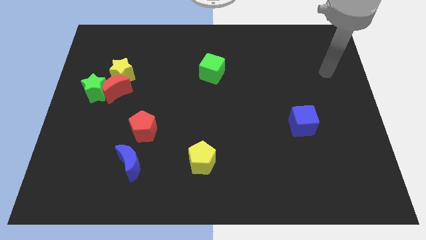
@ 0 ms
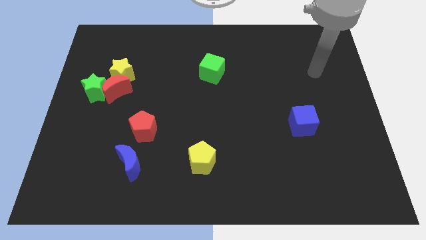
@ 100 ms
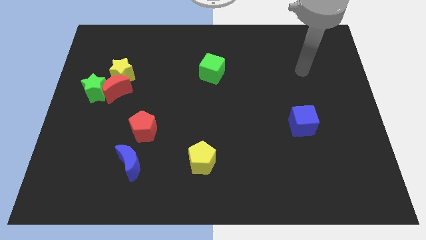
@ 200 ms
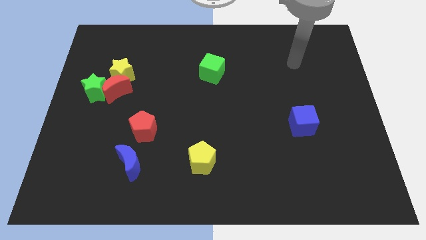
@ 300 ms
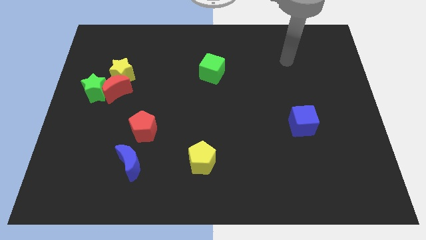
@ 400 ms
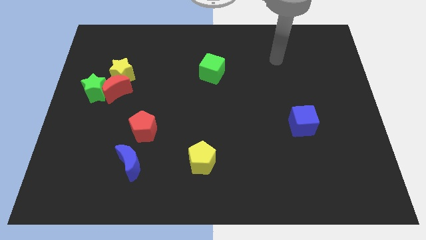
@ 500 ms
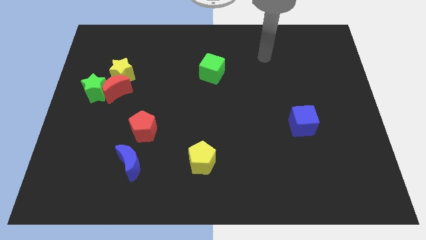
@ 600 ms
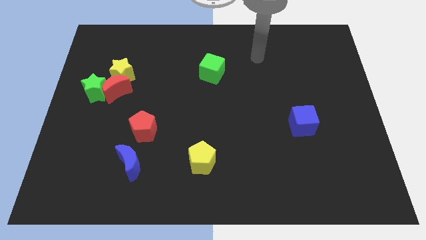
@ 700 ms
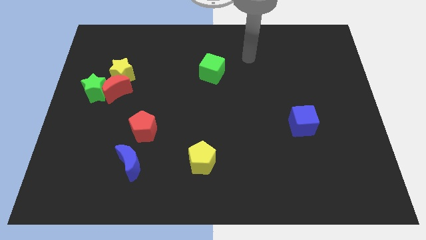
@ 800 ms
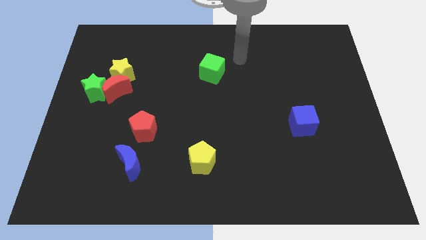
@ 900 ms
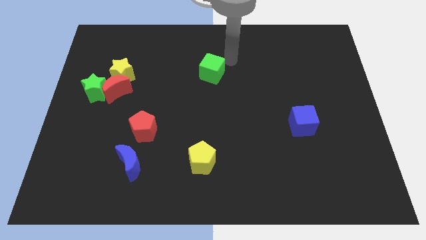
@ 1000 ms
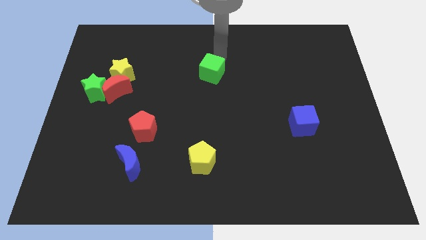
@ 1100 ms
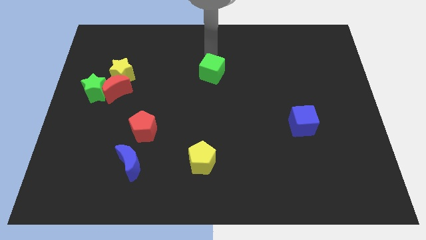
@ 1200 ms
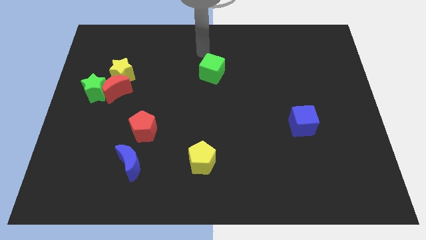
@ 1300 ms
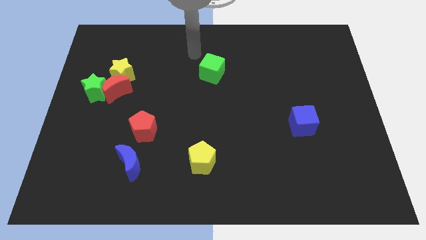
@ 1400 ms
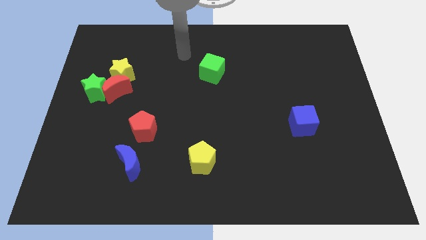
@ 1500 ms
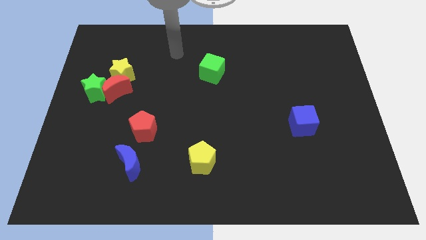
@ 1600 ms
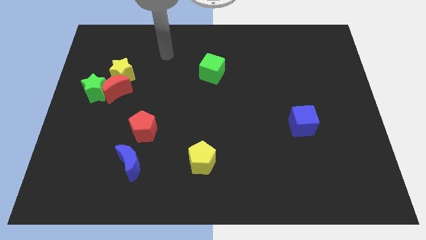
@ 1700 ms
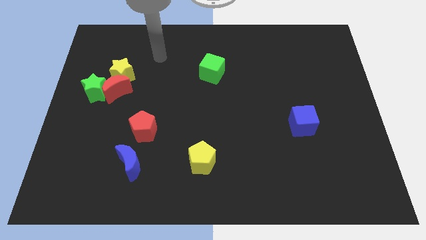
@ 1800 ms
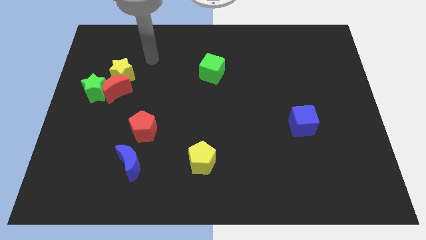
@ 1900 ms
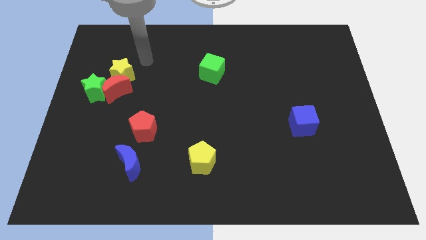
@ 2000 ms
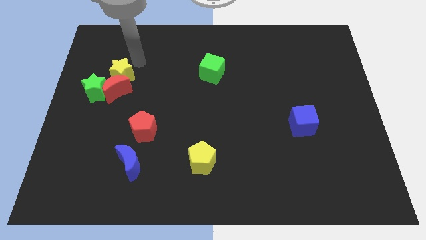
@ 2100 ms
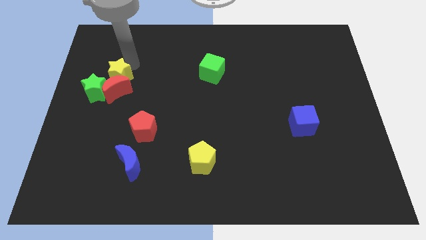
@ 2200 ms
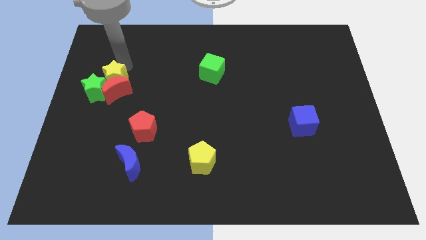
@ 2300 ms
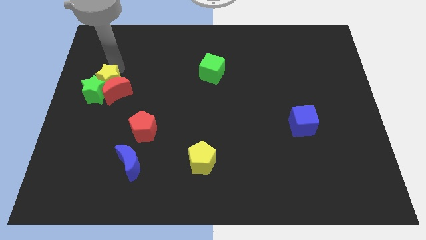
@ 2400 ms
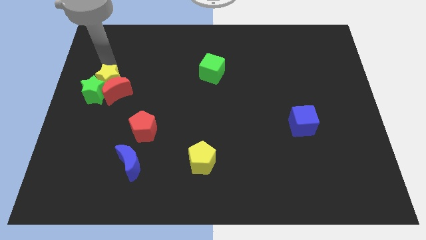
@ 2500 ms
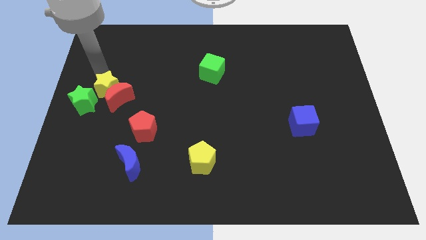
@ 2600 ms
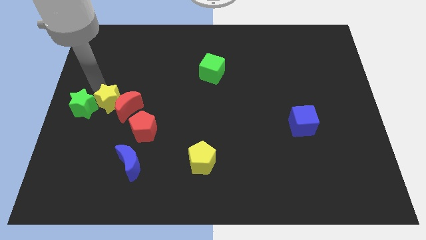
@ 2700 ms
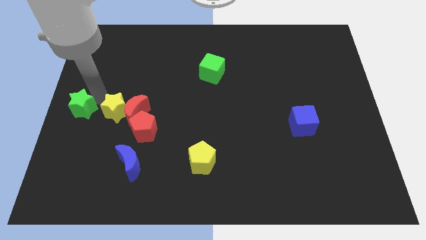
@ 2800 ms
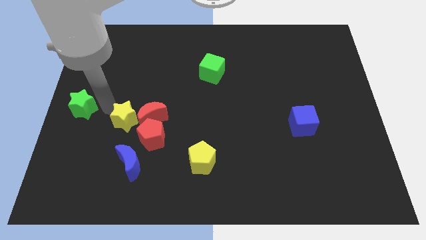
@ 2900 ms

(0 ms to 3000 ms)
separate the red moon from the green star and yellow star

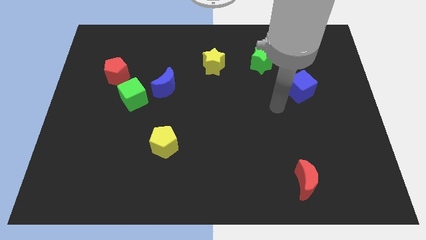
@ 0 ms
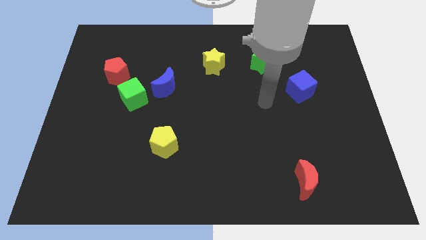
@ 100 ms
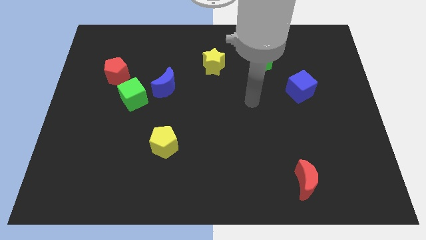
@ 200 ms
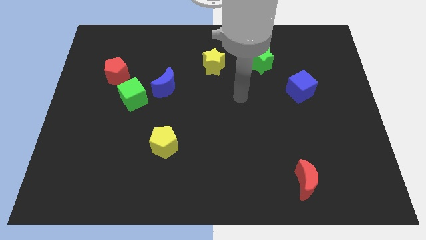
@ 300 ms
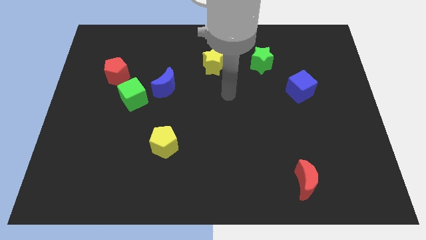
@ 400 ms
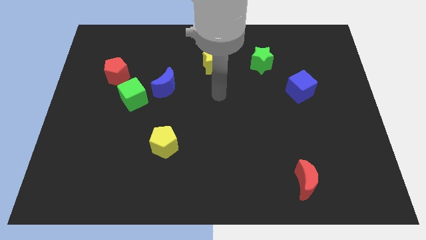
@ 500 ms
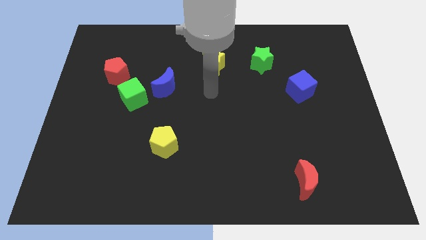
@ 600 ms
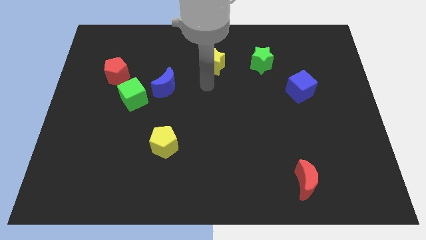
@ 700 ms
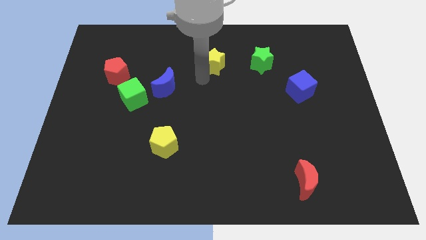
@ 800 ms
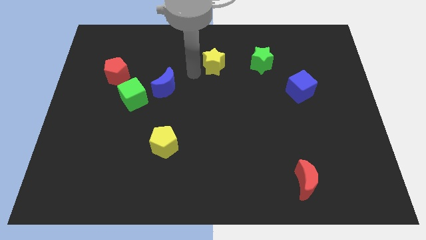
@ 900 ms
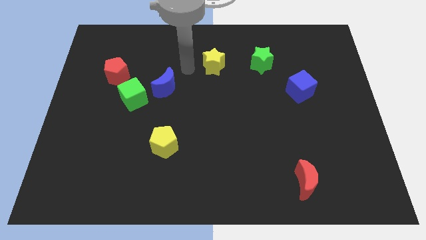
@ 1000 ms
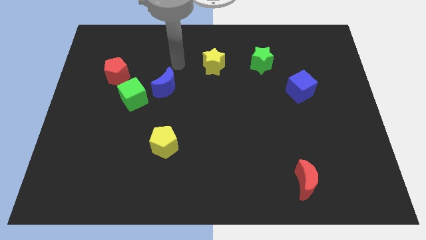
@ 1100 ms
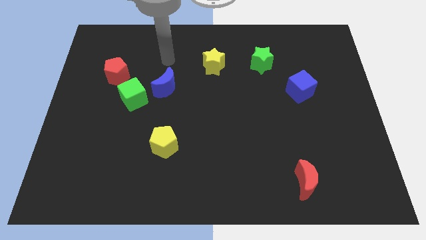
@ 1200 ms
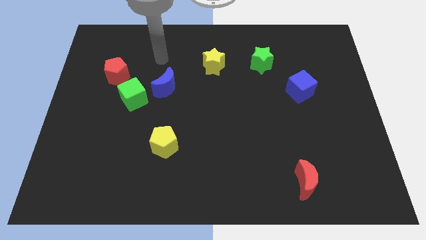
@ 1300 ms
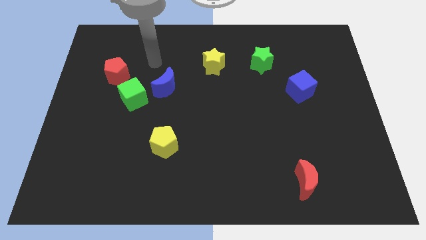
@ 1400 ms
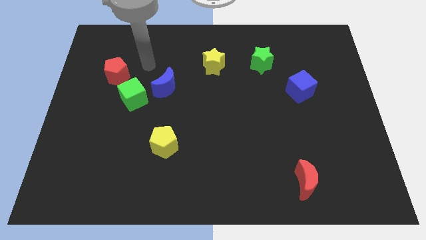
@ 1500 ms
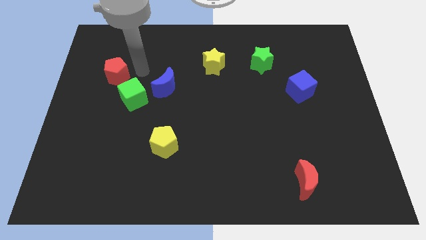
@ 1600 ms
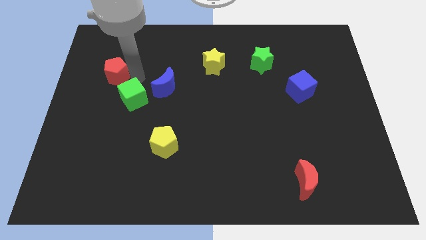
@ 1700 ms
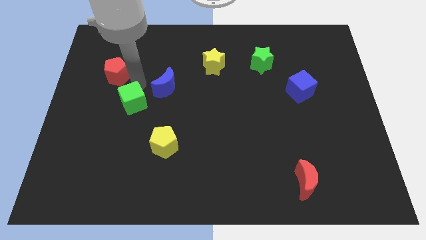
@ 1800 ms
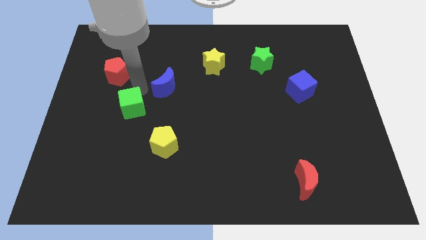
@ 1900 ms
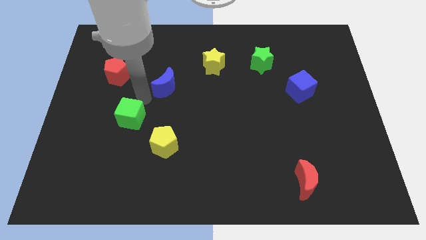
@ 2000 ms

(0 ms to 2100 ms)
pull the blue moon apart from the green cube

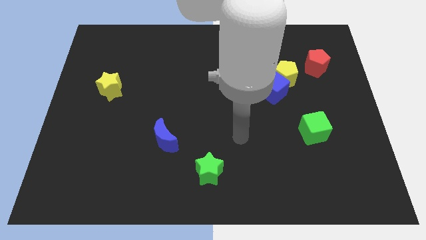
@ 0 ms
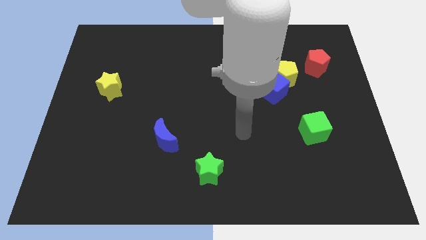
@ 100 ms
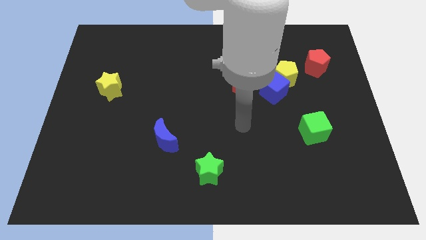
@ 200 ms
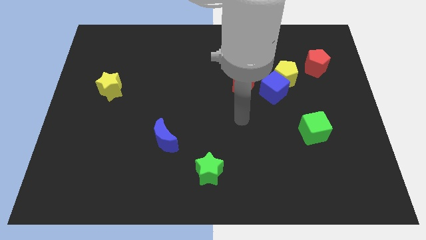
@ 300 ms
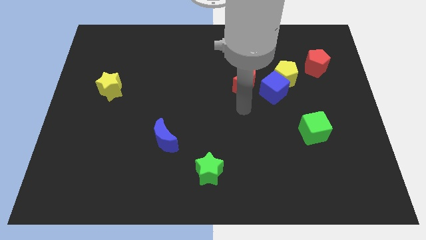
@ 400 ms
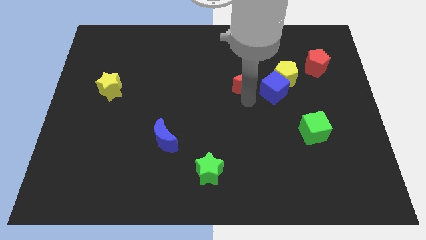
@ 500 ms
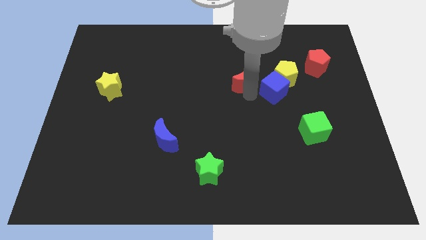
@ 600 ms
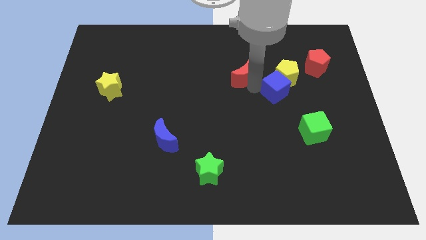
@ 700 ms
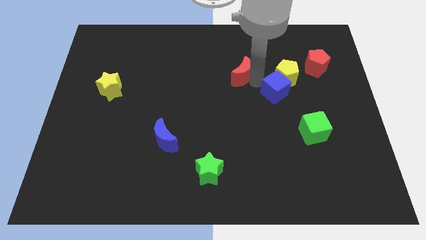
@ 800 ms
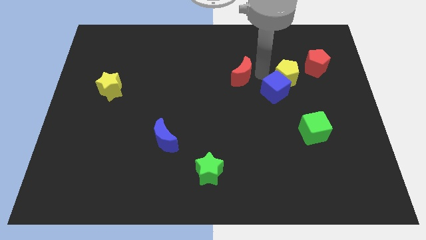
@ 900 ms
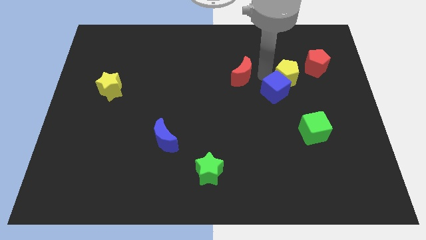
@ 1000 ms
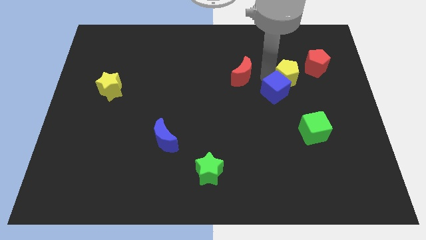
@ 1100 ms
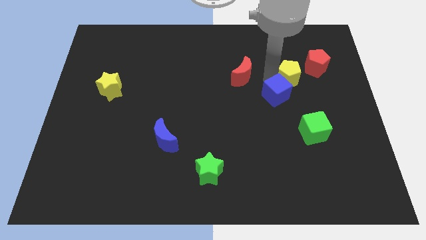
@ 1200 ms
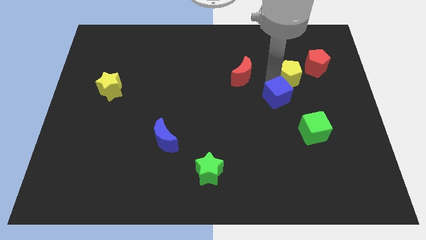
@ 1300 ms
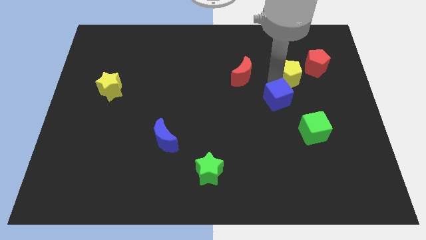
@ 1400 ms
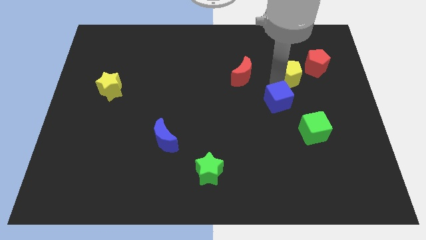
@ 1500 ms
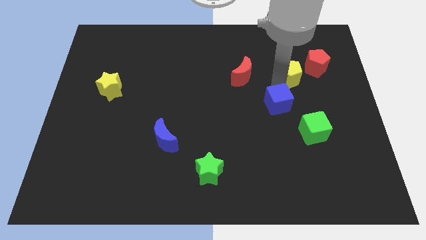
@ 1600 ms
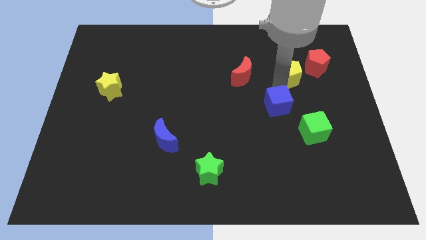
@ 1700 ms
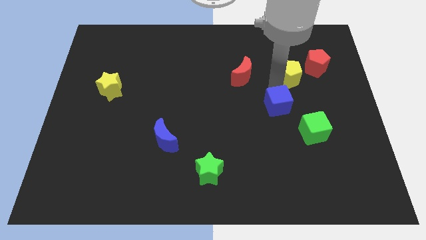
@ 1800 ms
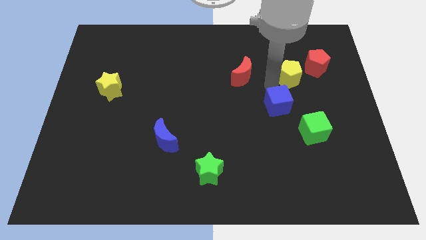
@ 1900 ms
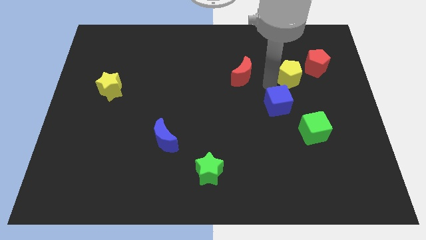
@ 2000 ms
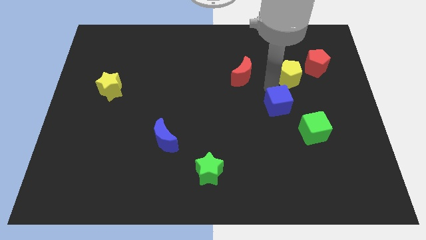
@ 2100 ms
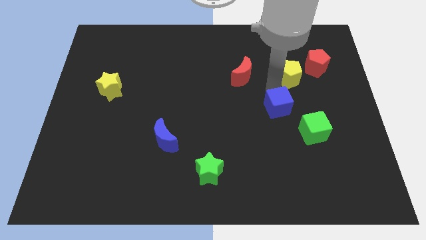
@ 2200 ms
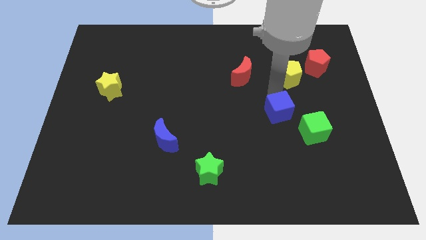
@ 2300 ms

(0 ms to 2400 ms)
move the blue cube away from the yellow pentagon and red moon

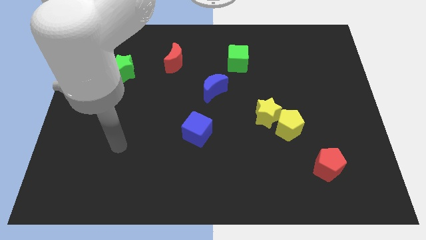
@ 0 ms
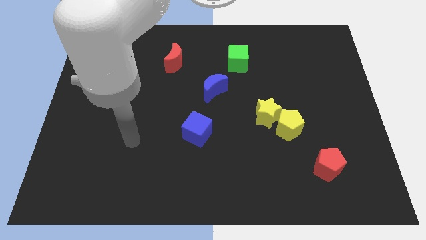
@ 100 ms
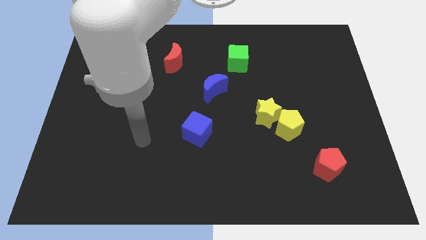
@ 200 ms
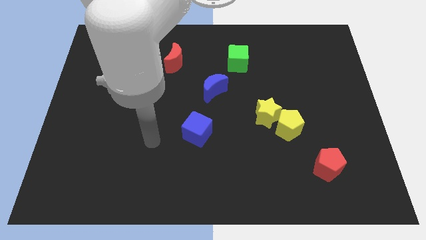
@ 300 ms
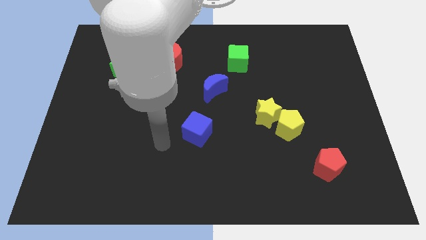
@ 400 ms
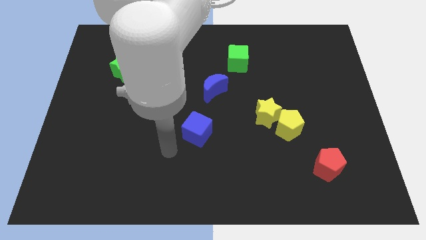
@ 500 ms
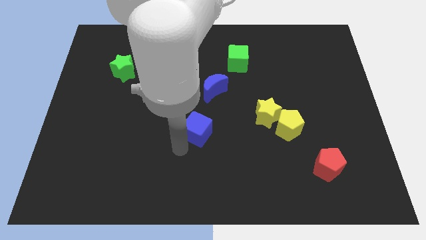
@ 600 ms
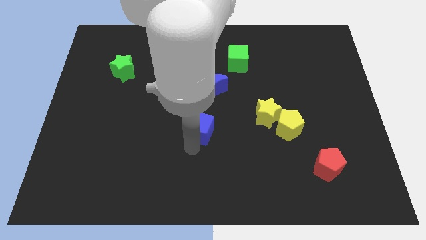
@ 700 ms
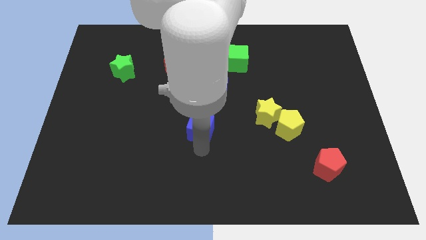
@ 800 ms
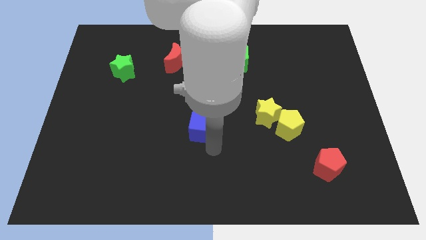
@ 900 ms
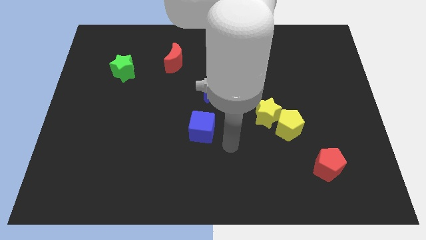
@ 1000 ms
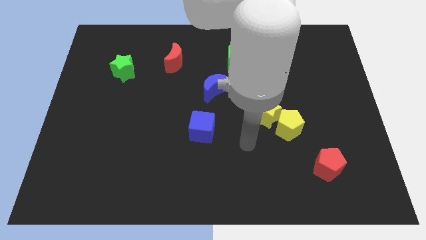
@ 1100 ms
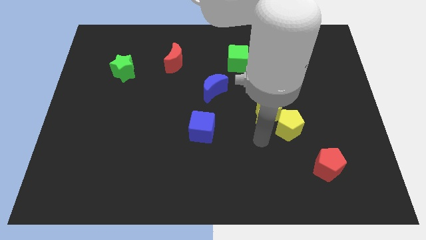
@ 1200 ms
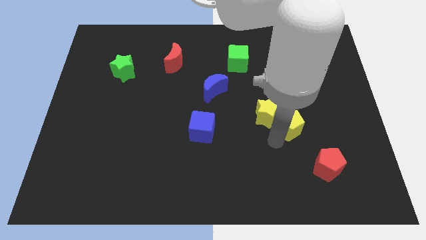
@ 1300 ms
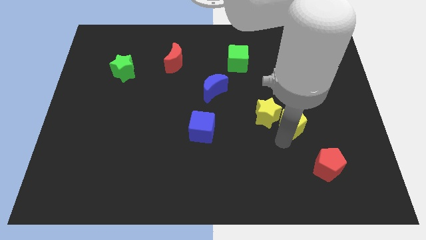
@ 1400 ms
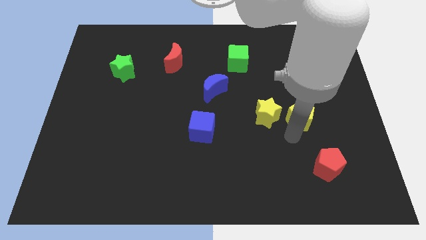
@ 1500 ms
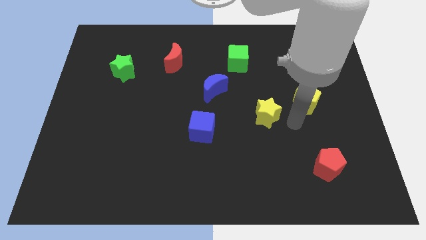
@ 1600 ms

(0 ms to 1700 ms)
separate the yellow star from the yellow pentagon
